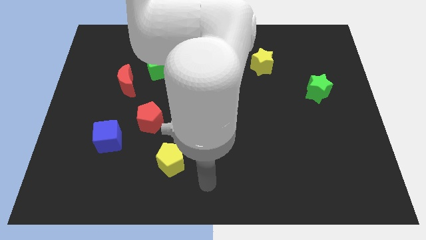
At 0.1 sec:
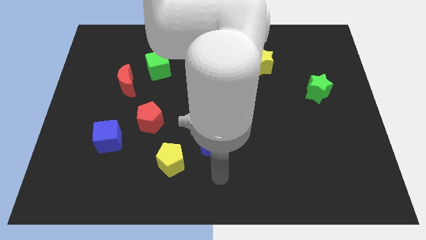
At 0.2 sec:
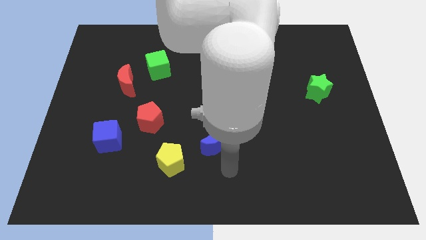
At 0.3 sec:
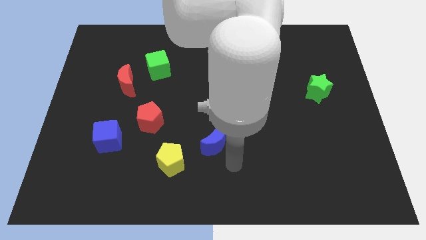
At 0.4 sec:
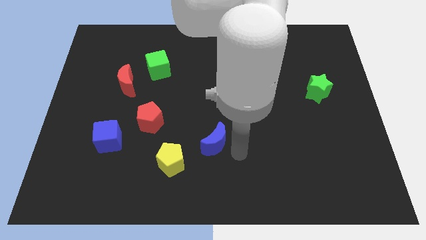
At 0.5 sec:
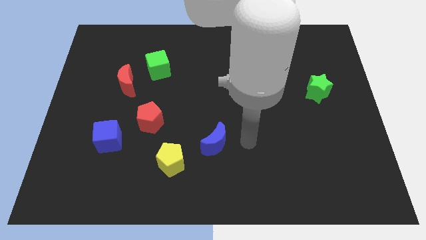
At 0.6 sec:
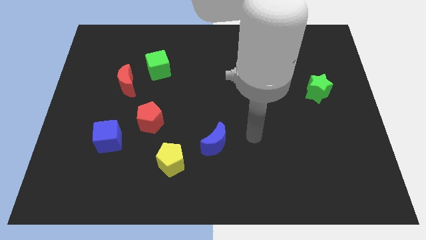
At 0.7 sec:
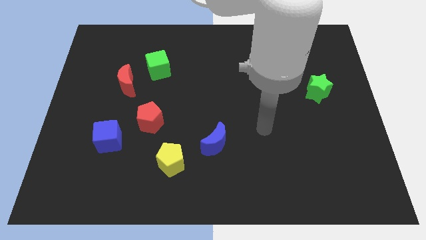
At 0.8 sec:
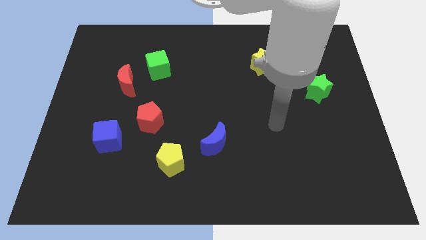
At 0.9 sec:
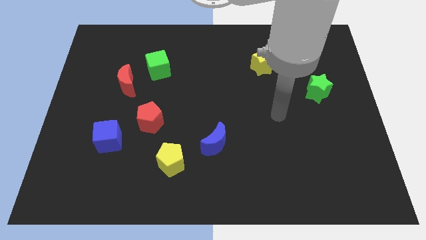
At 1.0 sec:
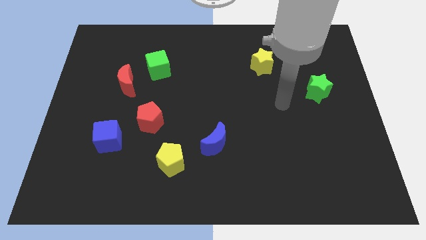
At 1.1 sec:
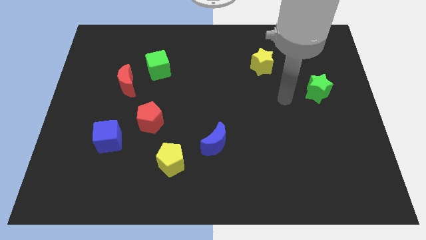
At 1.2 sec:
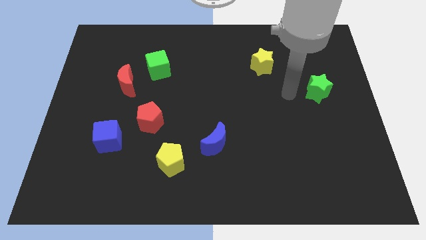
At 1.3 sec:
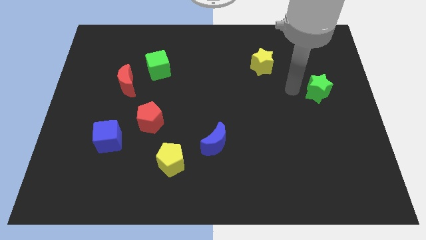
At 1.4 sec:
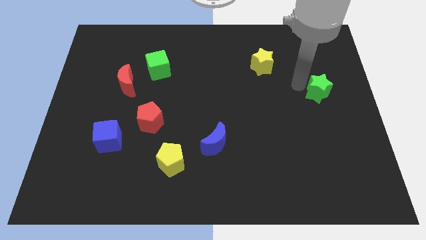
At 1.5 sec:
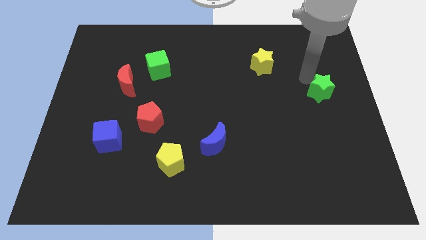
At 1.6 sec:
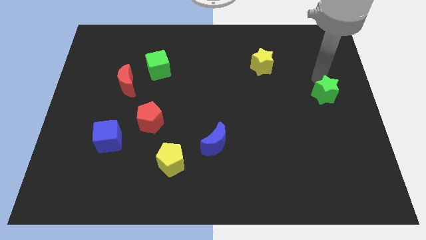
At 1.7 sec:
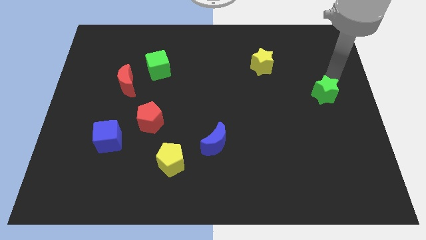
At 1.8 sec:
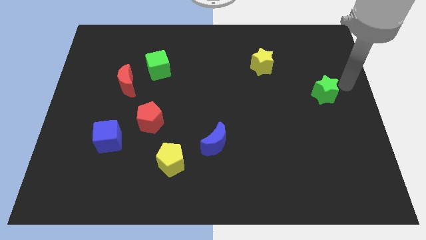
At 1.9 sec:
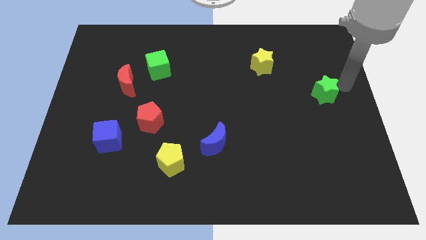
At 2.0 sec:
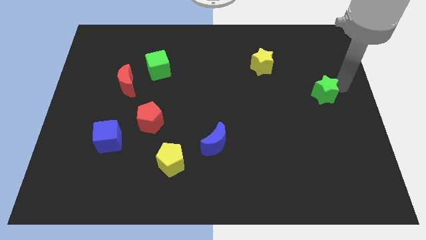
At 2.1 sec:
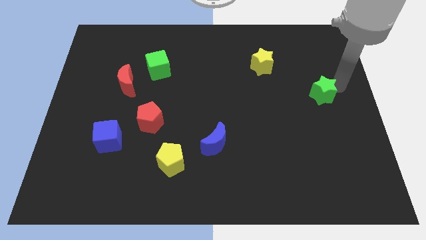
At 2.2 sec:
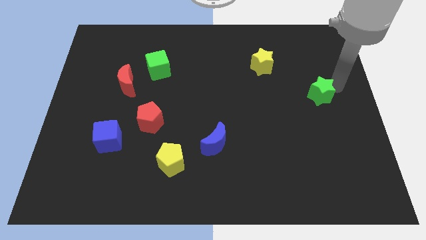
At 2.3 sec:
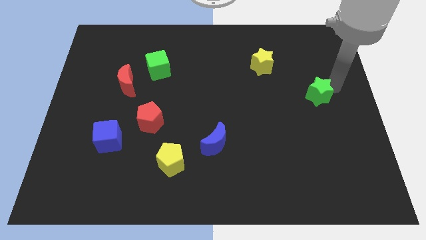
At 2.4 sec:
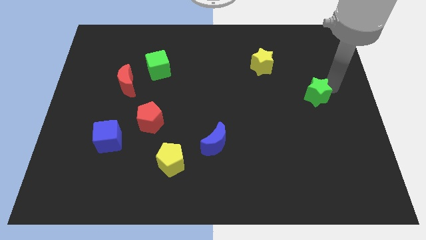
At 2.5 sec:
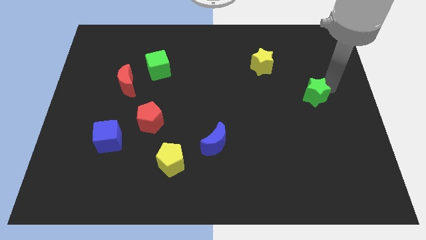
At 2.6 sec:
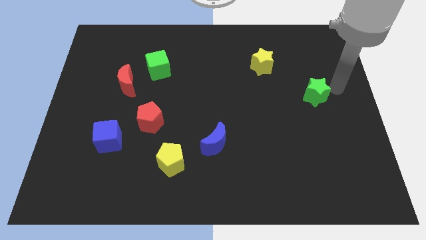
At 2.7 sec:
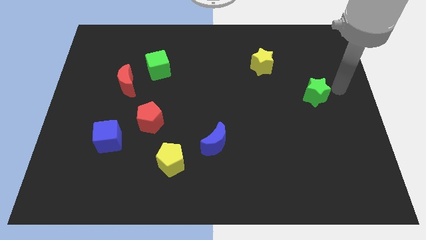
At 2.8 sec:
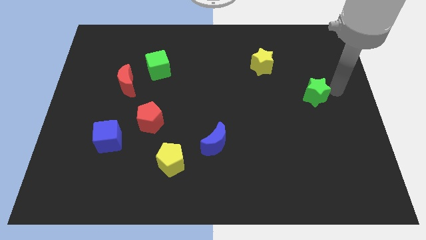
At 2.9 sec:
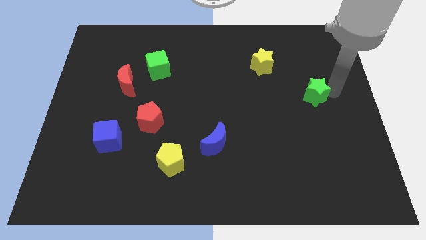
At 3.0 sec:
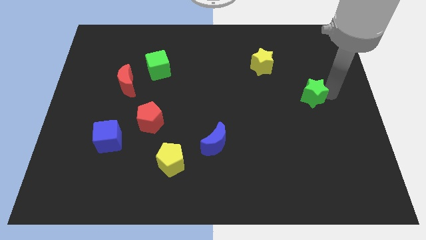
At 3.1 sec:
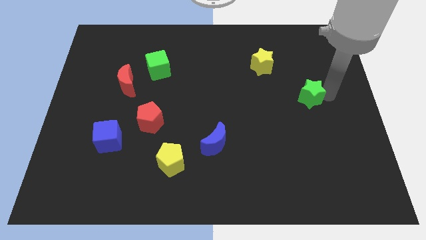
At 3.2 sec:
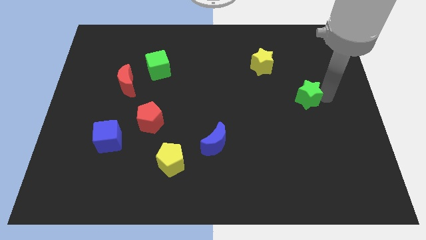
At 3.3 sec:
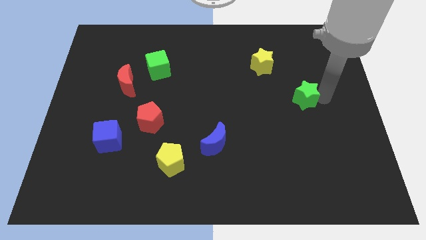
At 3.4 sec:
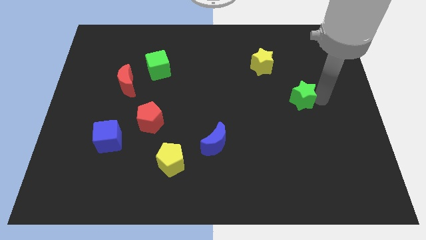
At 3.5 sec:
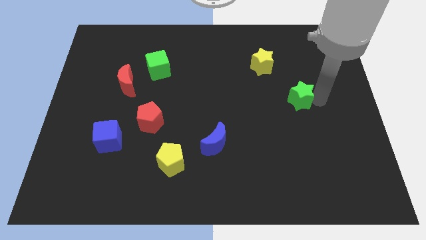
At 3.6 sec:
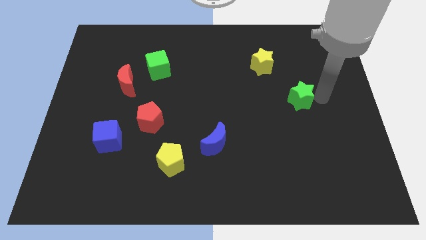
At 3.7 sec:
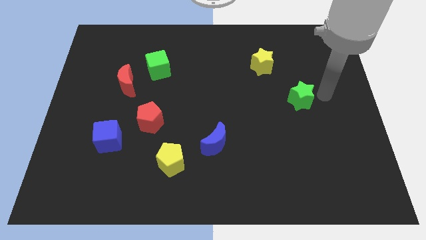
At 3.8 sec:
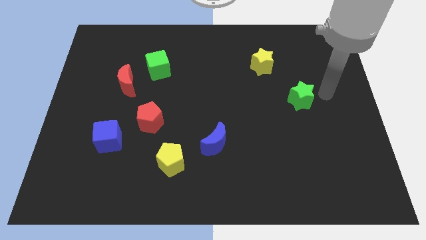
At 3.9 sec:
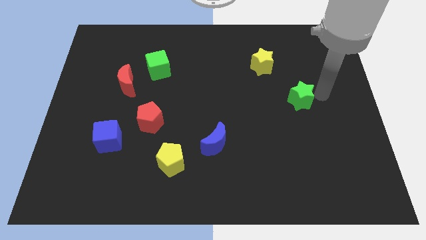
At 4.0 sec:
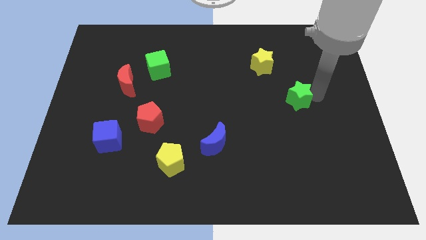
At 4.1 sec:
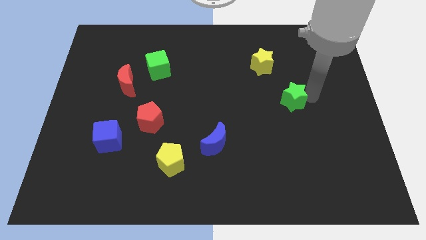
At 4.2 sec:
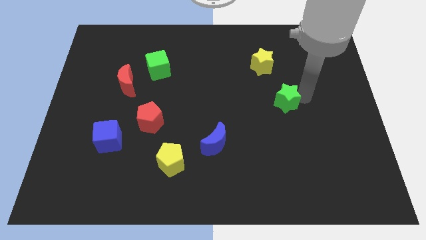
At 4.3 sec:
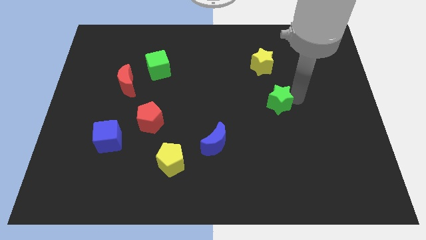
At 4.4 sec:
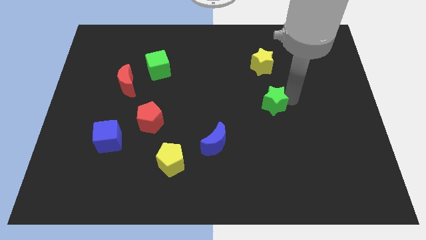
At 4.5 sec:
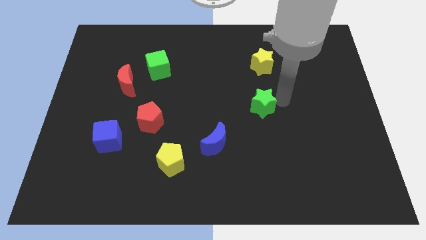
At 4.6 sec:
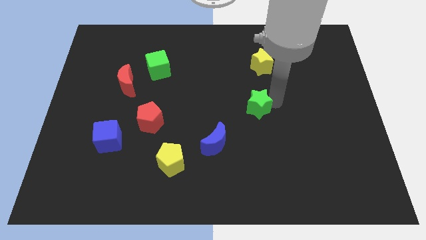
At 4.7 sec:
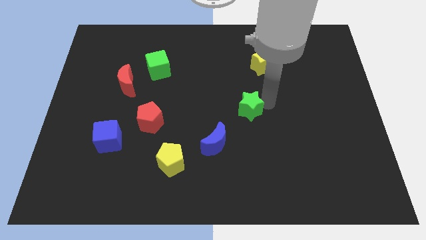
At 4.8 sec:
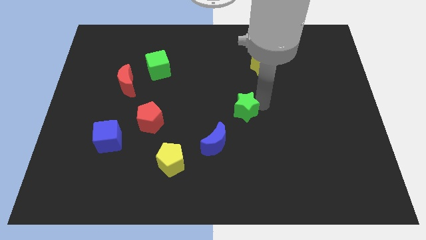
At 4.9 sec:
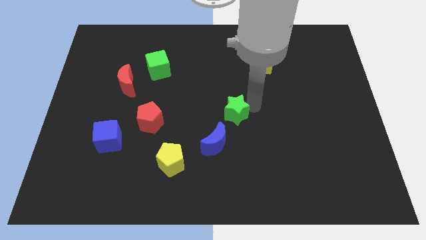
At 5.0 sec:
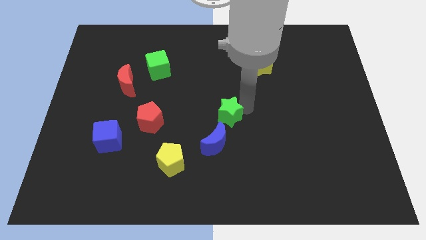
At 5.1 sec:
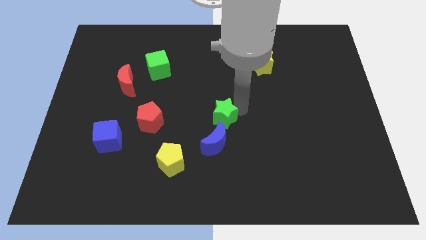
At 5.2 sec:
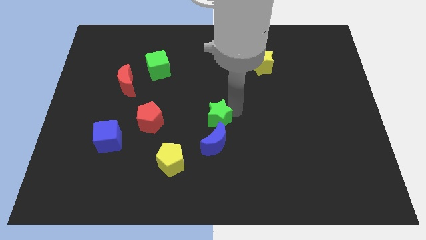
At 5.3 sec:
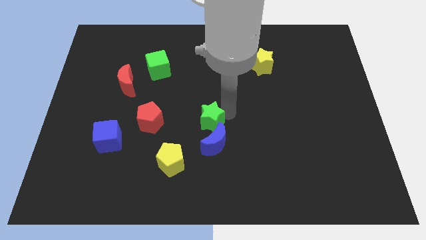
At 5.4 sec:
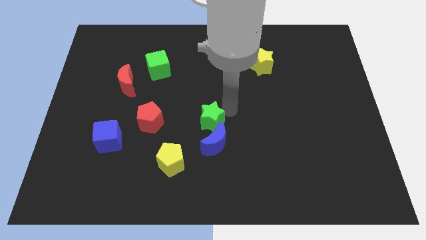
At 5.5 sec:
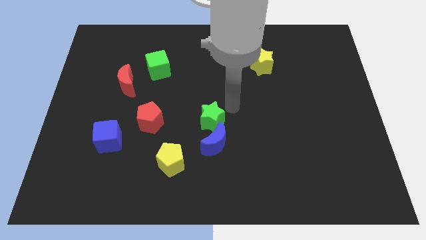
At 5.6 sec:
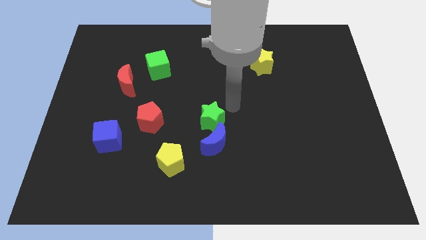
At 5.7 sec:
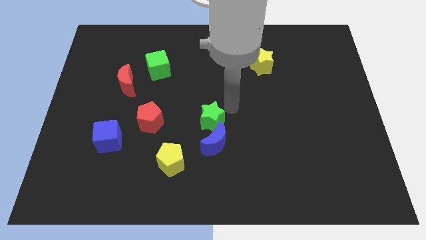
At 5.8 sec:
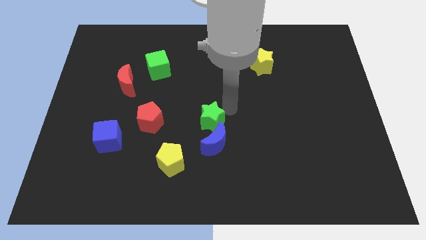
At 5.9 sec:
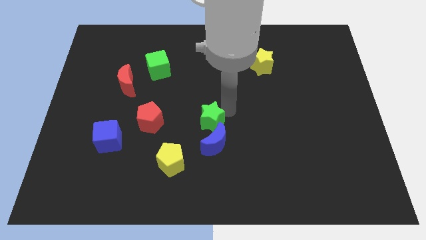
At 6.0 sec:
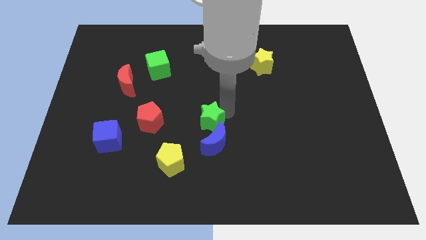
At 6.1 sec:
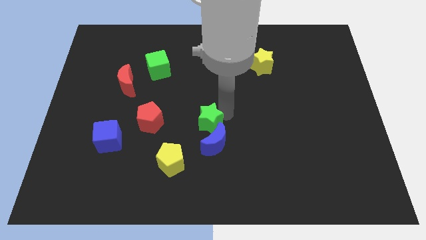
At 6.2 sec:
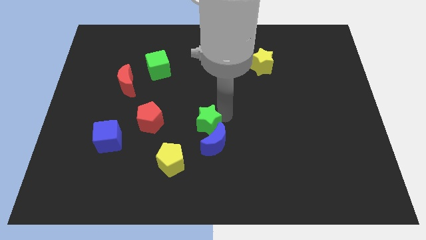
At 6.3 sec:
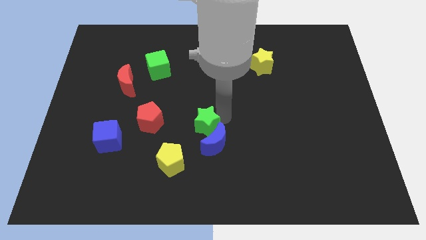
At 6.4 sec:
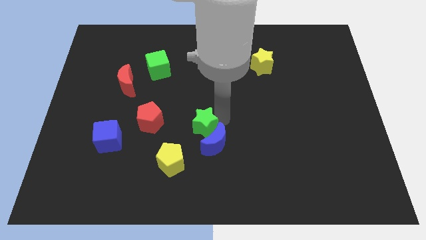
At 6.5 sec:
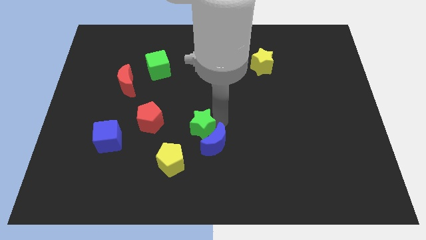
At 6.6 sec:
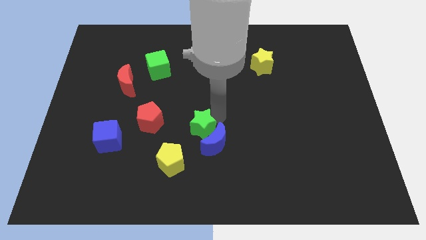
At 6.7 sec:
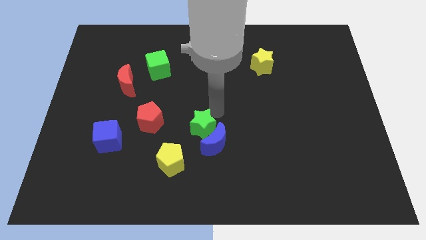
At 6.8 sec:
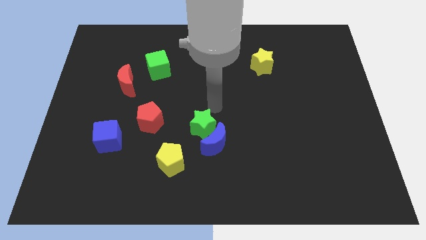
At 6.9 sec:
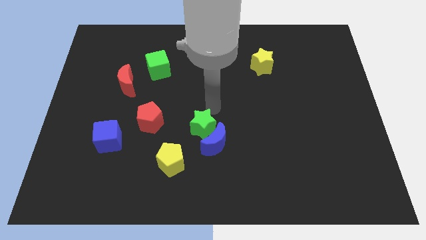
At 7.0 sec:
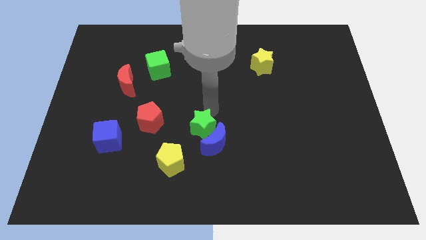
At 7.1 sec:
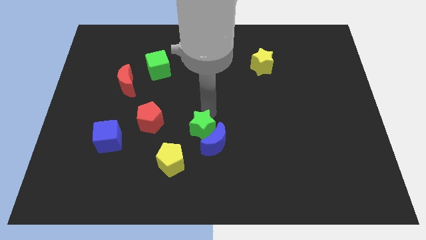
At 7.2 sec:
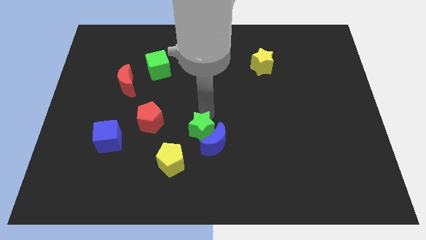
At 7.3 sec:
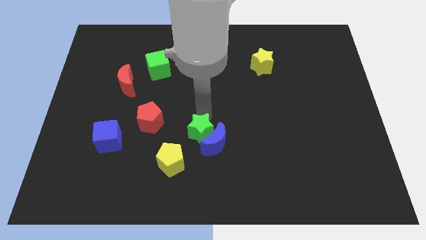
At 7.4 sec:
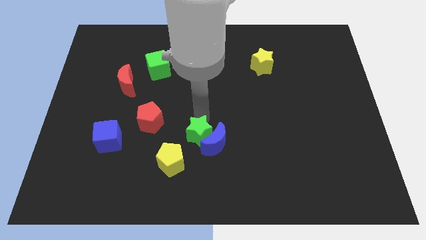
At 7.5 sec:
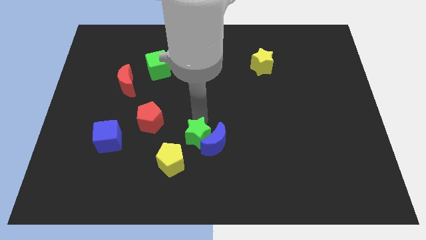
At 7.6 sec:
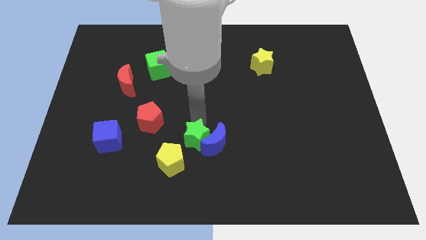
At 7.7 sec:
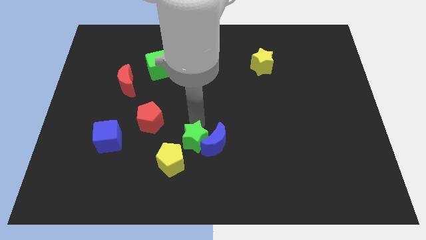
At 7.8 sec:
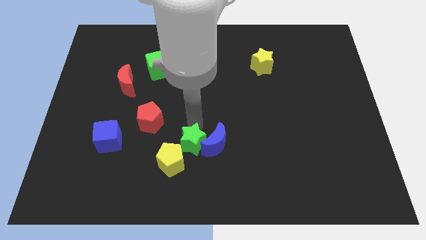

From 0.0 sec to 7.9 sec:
slide the green star to the yellow pentagon
